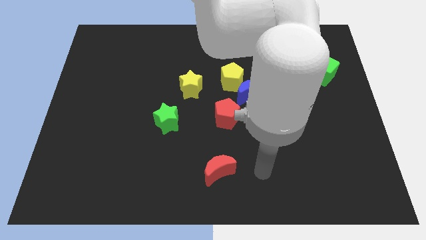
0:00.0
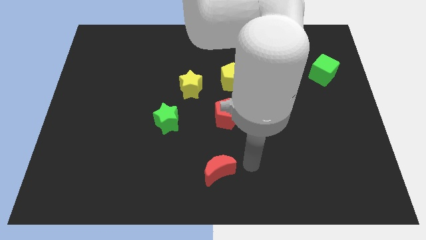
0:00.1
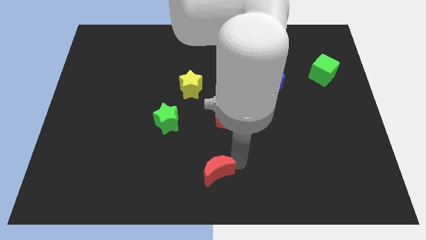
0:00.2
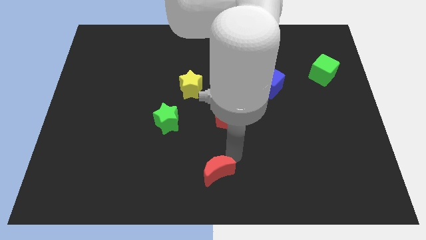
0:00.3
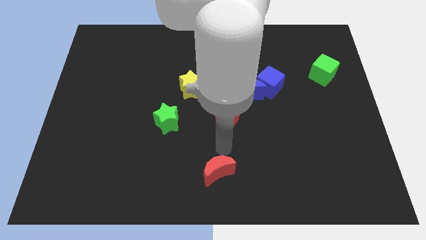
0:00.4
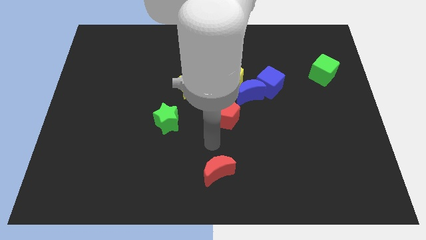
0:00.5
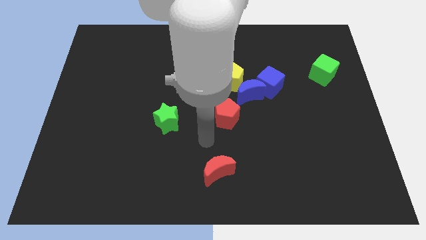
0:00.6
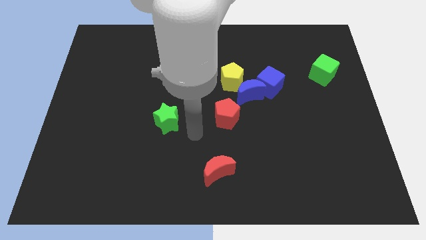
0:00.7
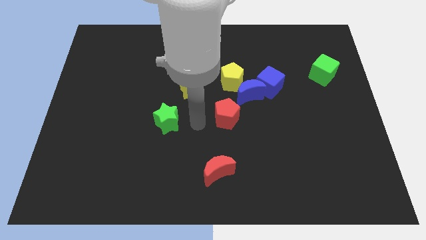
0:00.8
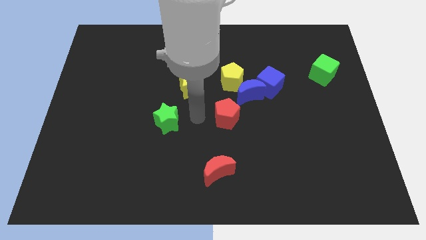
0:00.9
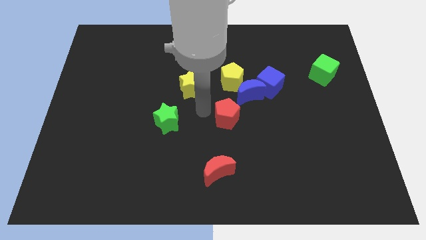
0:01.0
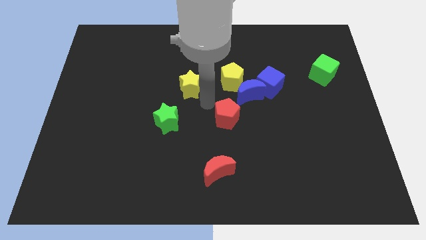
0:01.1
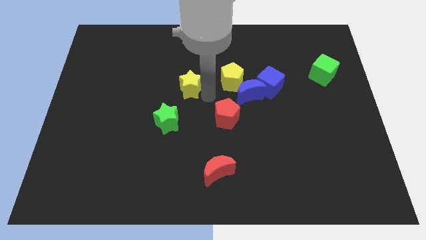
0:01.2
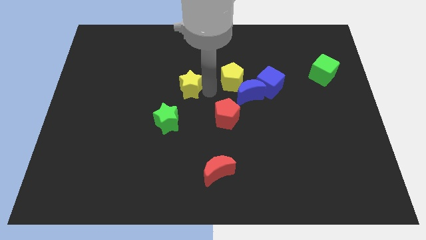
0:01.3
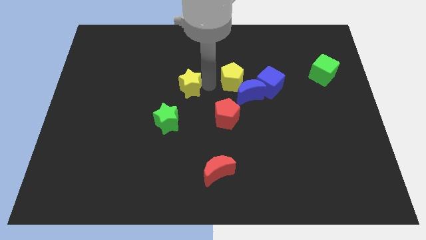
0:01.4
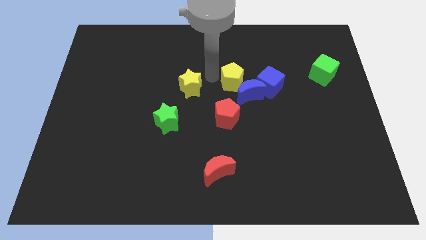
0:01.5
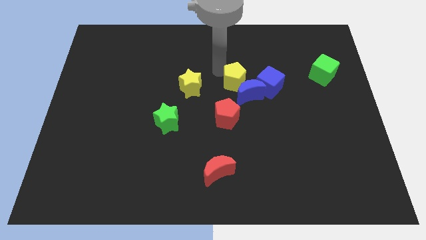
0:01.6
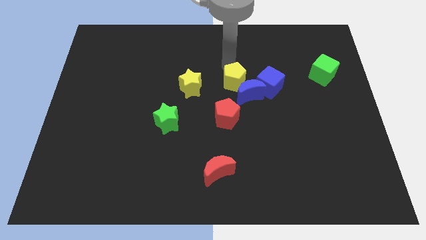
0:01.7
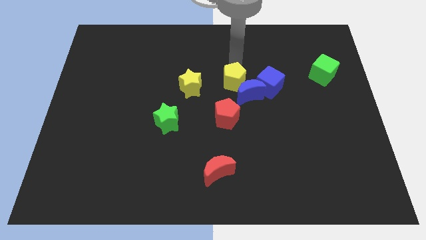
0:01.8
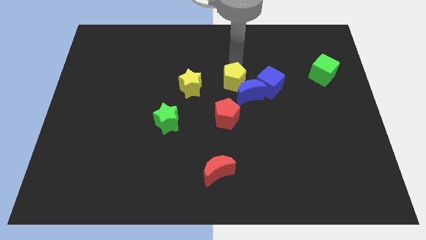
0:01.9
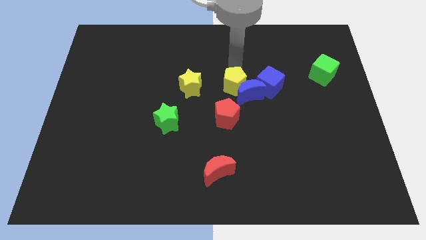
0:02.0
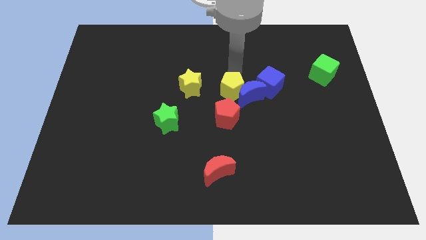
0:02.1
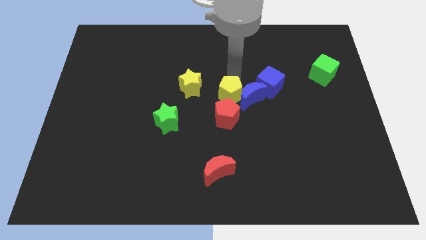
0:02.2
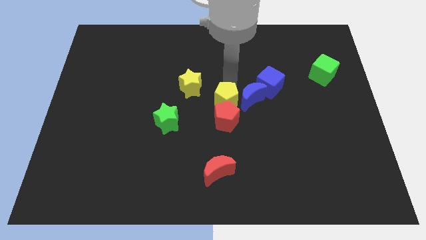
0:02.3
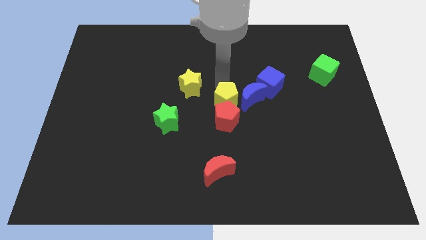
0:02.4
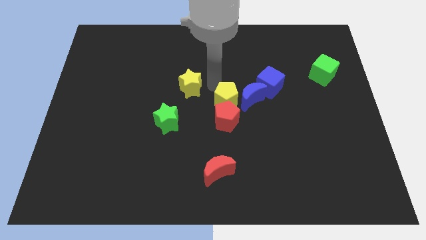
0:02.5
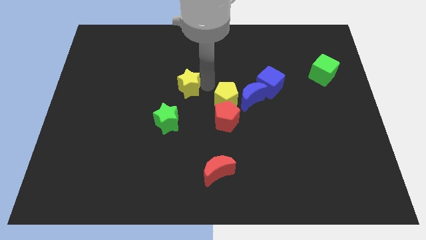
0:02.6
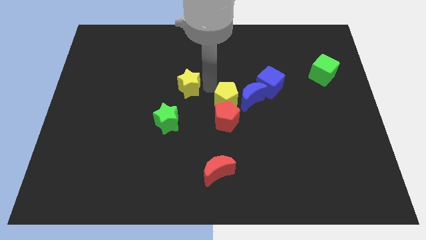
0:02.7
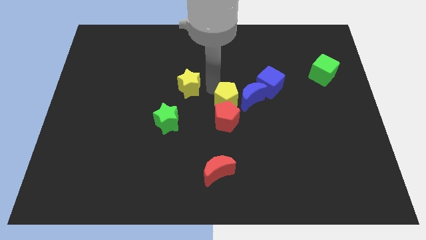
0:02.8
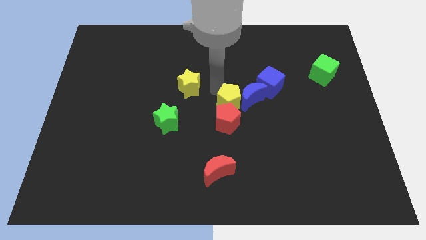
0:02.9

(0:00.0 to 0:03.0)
push the yellow pentagon downwards a little

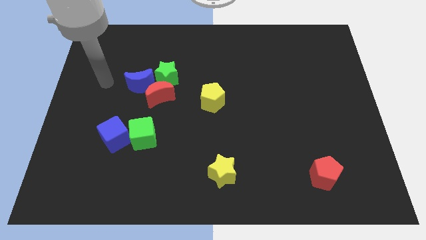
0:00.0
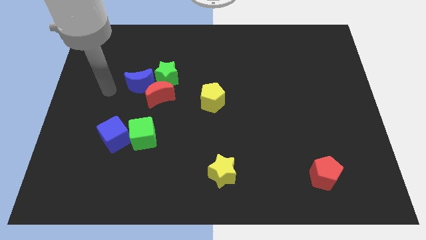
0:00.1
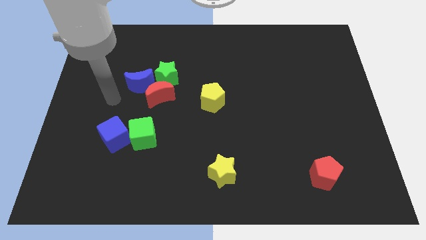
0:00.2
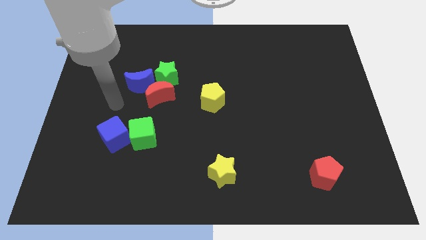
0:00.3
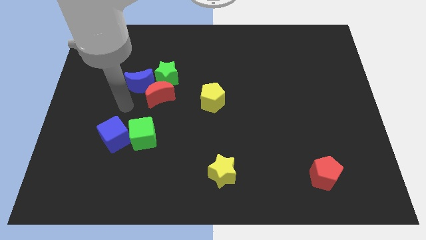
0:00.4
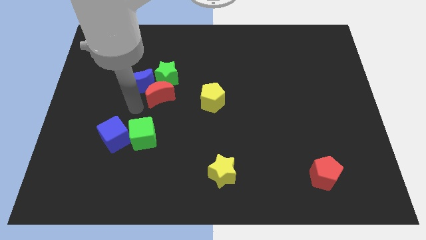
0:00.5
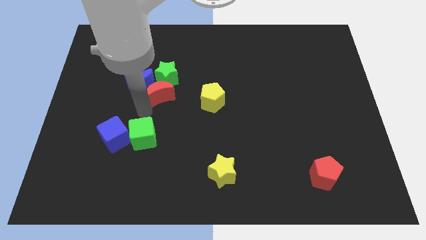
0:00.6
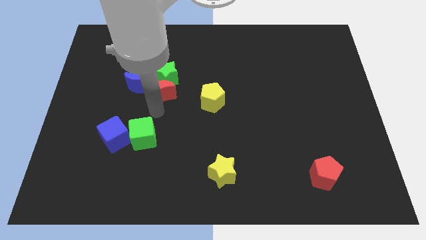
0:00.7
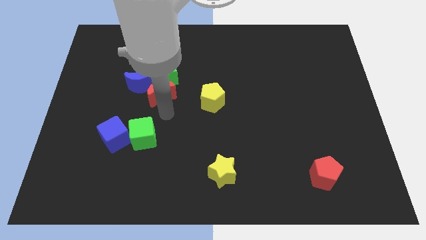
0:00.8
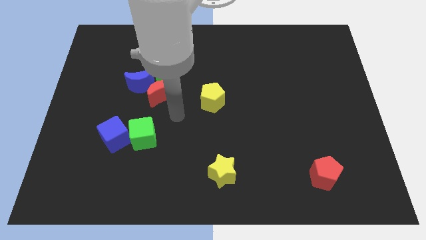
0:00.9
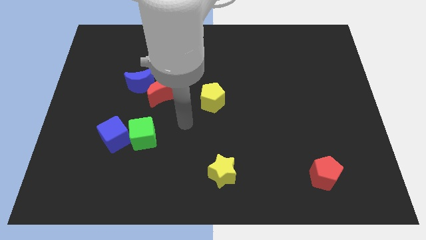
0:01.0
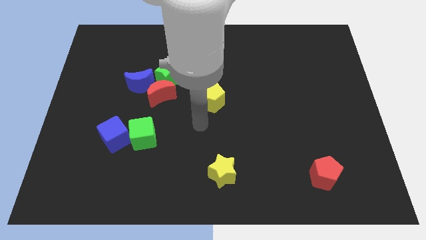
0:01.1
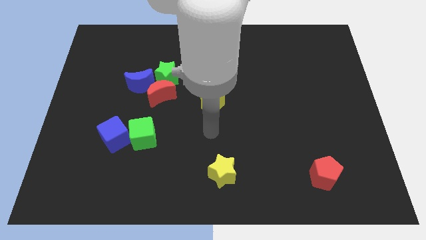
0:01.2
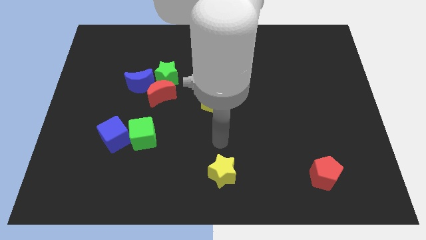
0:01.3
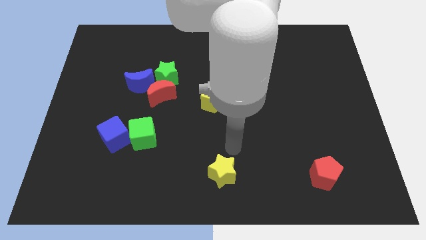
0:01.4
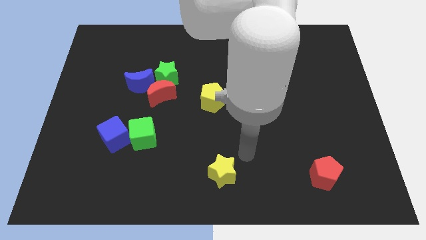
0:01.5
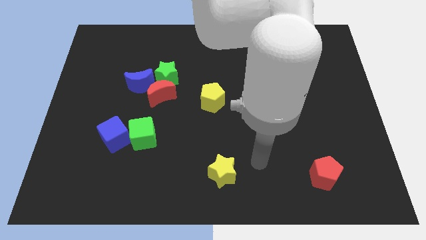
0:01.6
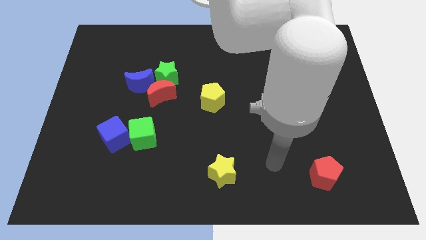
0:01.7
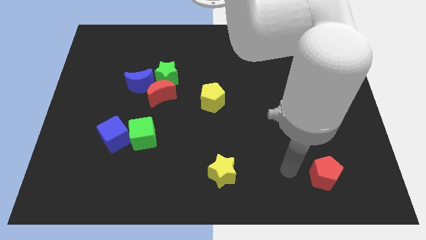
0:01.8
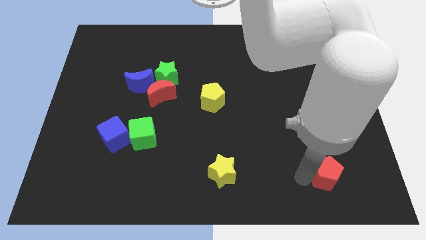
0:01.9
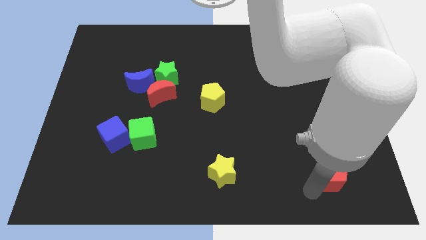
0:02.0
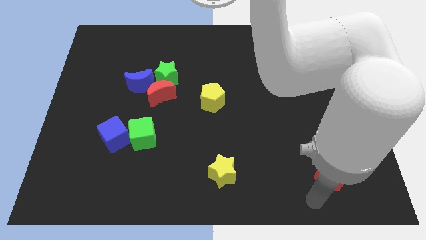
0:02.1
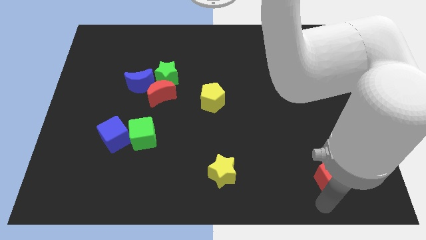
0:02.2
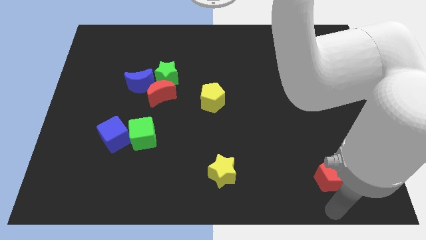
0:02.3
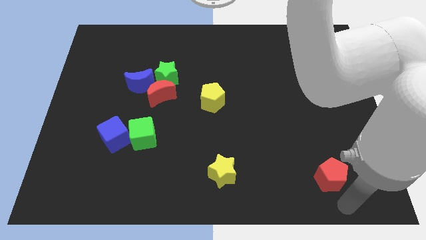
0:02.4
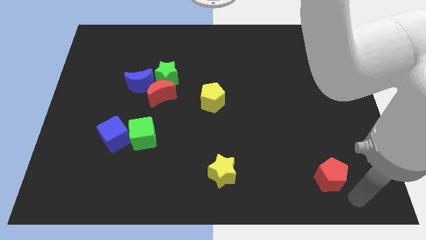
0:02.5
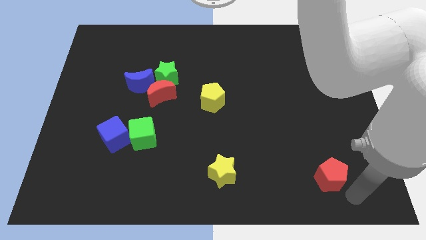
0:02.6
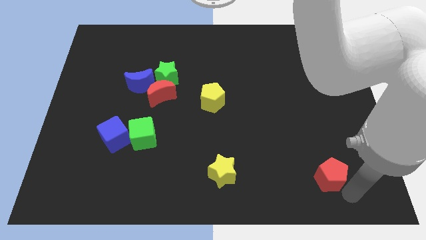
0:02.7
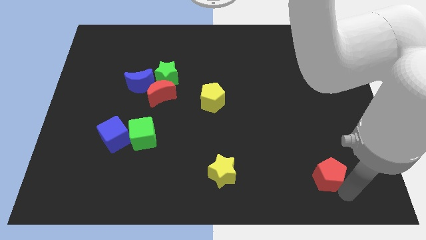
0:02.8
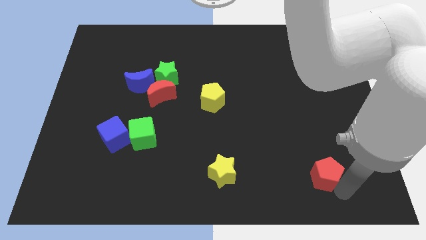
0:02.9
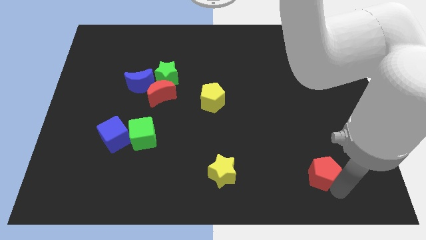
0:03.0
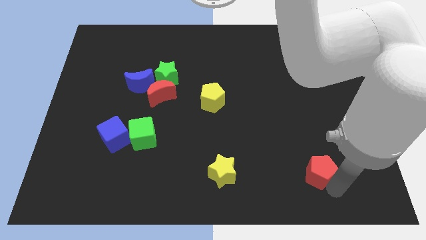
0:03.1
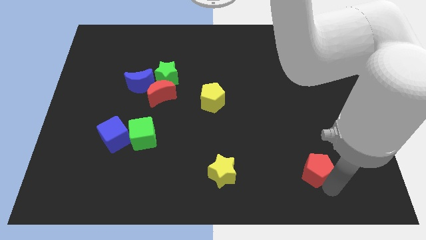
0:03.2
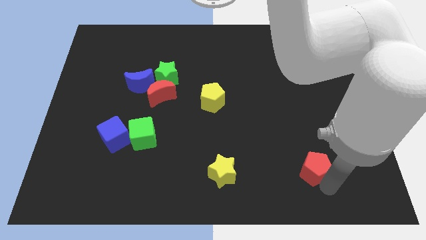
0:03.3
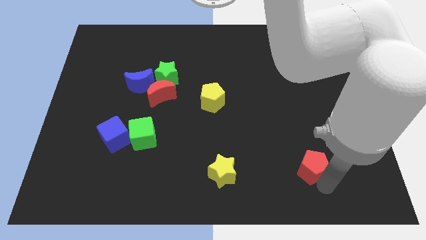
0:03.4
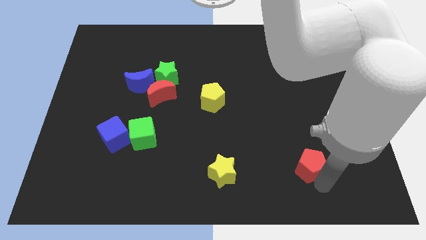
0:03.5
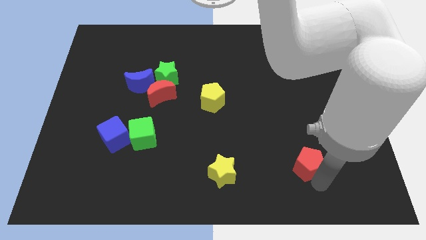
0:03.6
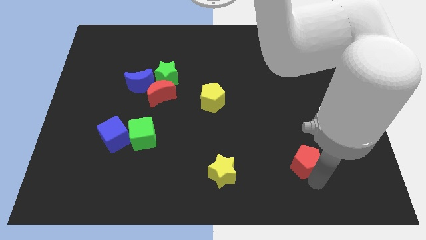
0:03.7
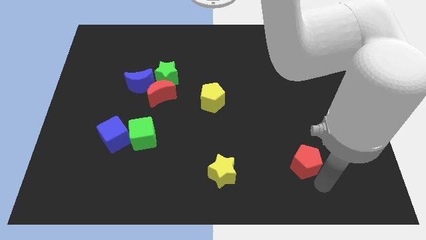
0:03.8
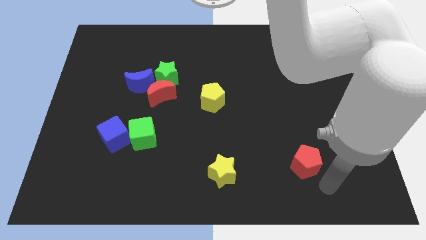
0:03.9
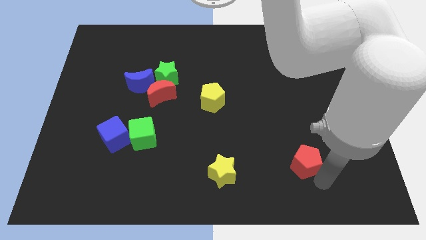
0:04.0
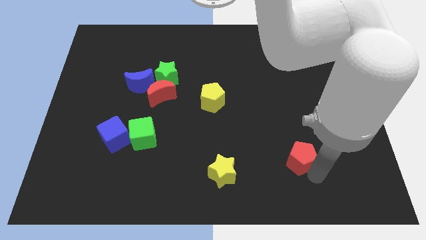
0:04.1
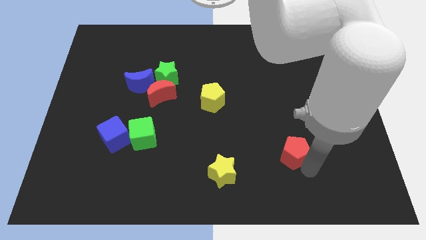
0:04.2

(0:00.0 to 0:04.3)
push the red pentagon diagonally upwards and left a little bit

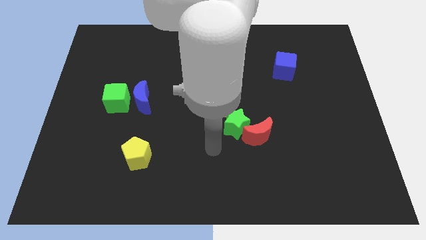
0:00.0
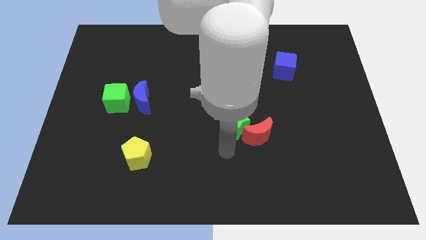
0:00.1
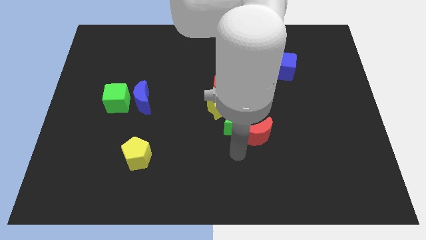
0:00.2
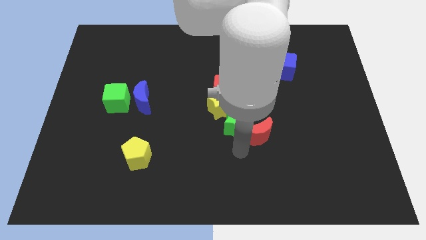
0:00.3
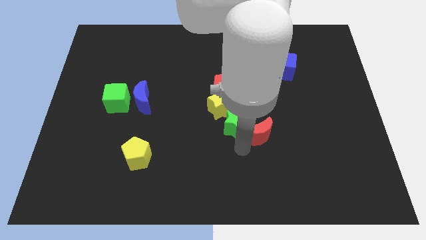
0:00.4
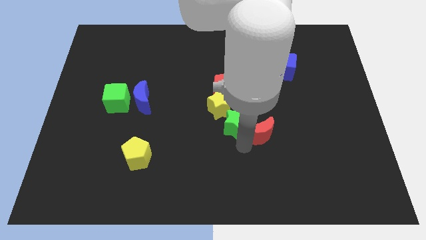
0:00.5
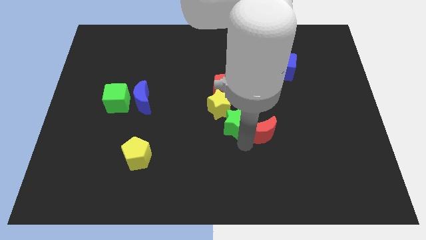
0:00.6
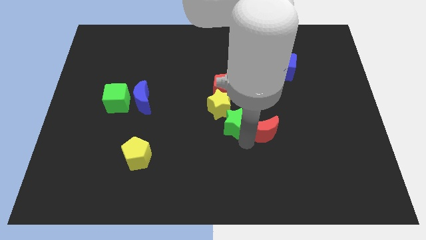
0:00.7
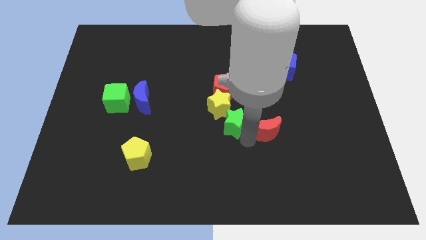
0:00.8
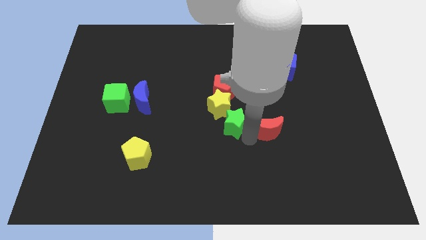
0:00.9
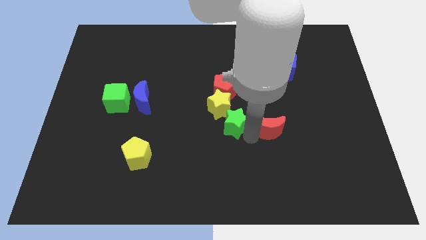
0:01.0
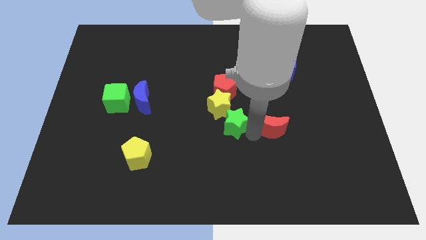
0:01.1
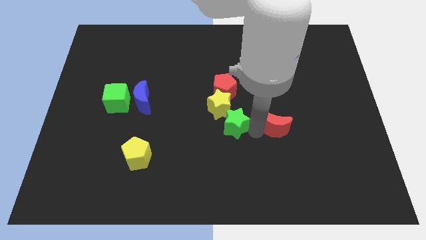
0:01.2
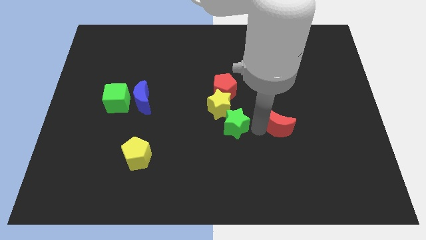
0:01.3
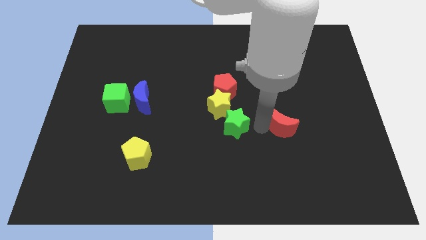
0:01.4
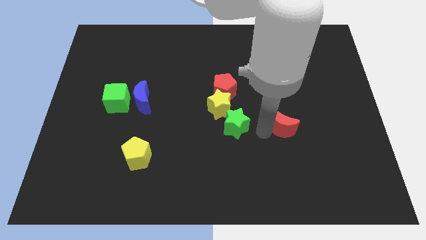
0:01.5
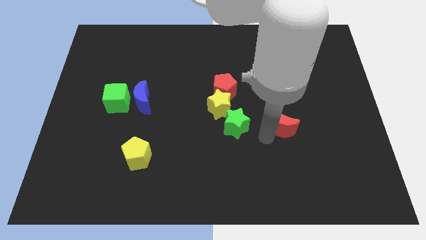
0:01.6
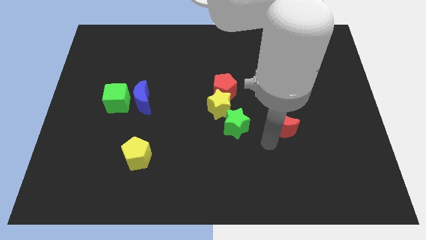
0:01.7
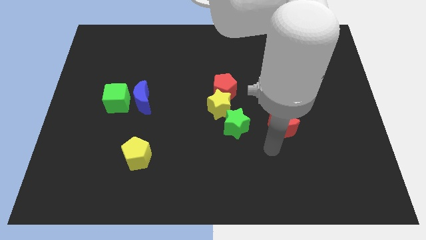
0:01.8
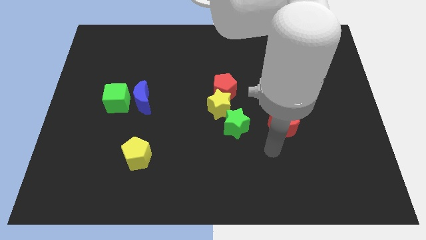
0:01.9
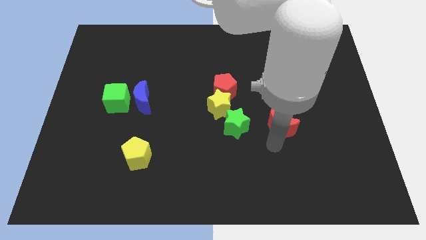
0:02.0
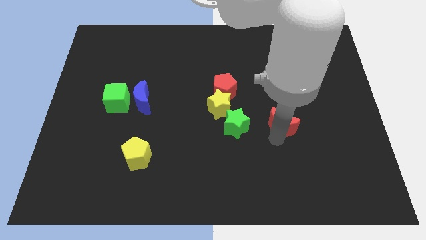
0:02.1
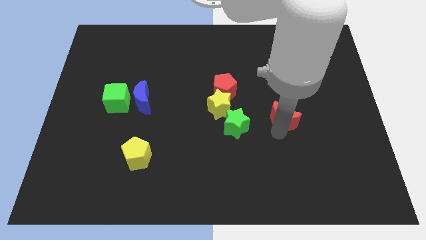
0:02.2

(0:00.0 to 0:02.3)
slightly push the red moon upwards and then to the right
